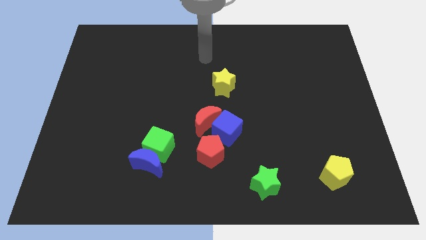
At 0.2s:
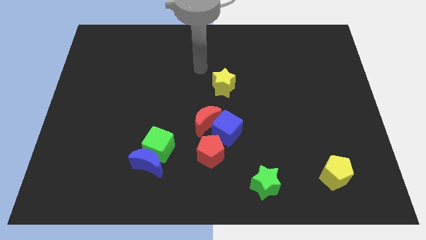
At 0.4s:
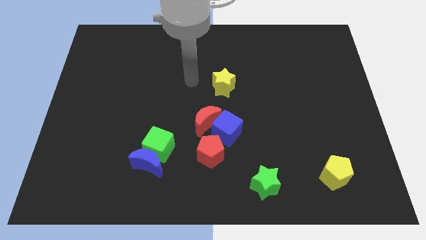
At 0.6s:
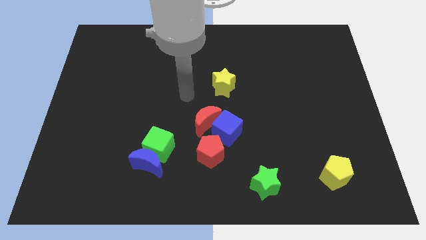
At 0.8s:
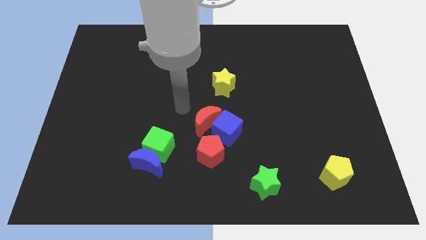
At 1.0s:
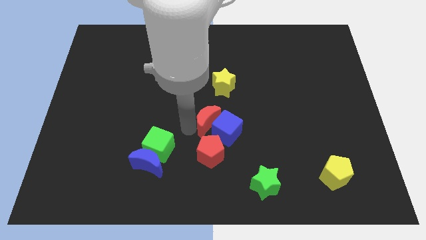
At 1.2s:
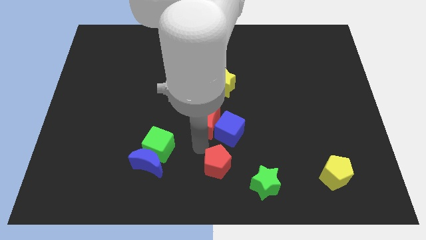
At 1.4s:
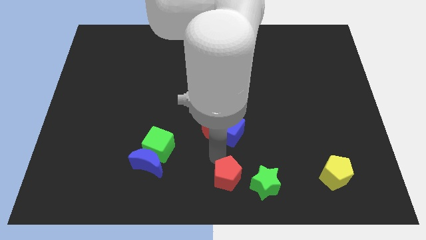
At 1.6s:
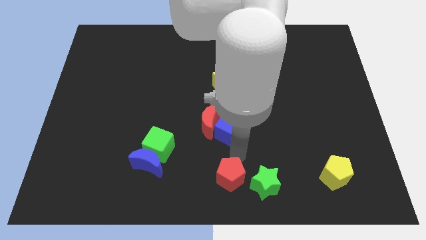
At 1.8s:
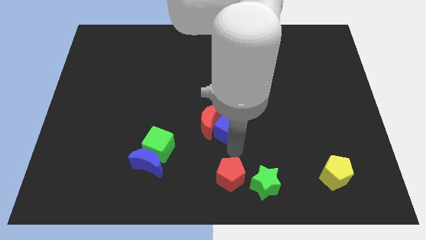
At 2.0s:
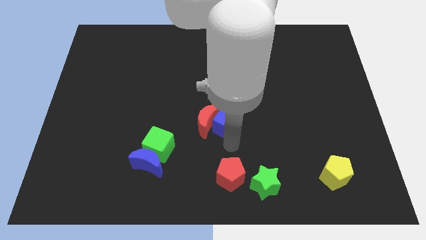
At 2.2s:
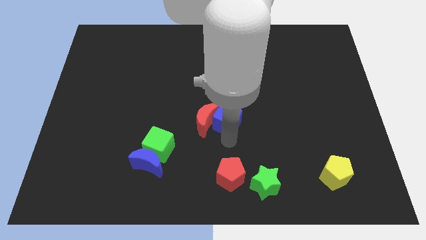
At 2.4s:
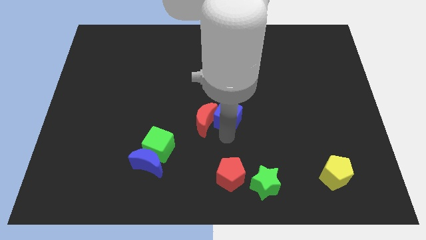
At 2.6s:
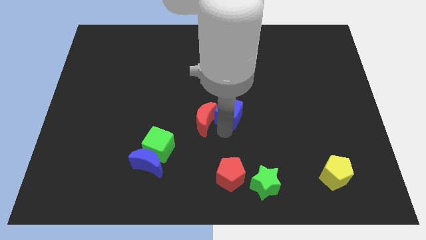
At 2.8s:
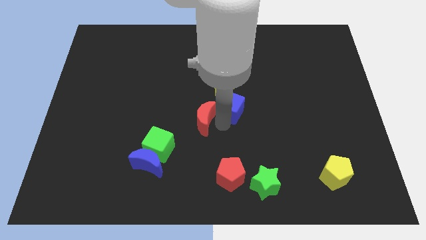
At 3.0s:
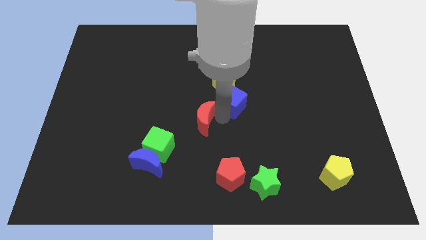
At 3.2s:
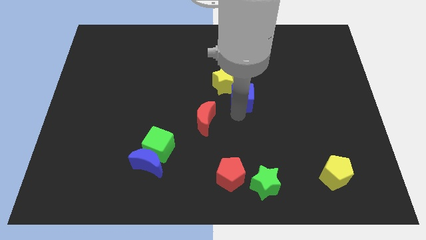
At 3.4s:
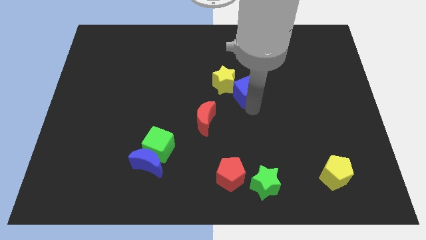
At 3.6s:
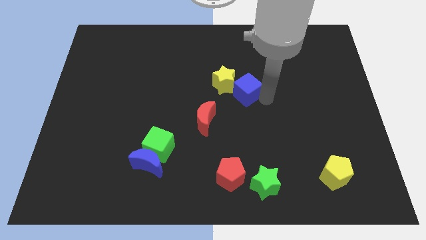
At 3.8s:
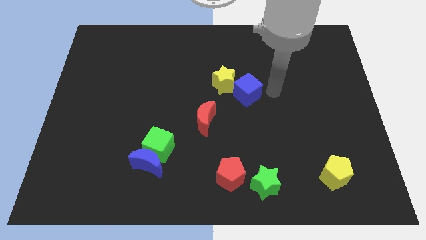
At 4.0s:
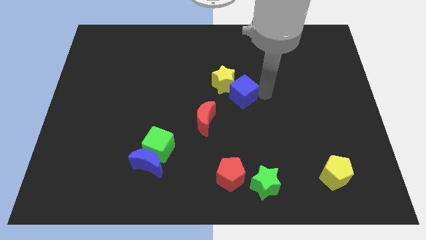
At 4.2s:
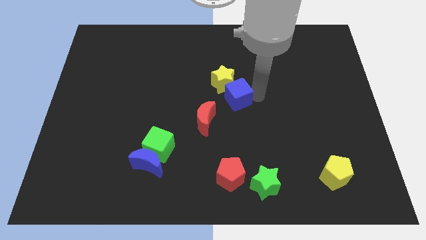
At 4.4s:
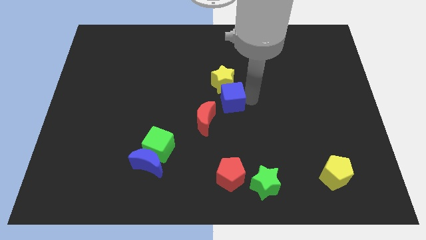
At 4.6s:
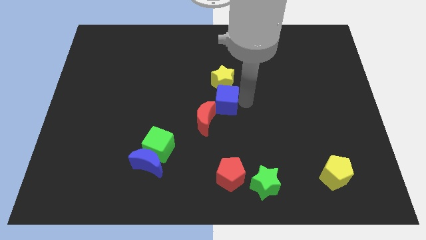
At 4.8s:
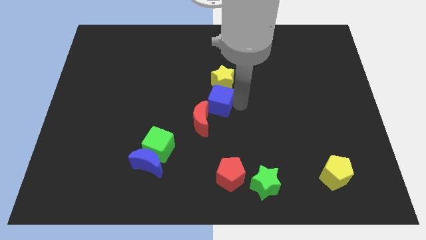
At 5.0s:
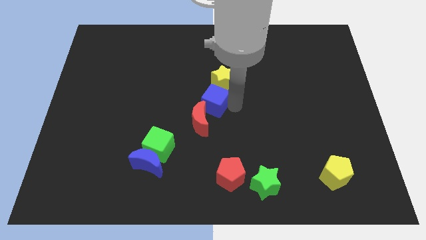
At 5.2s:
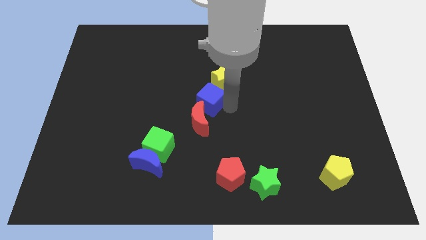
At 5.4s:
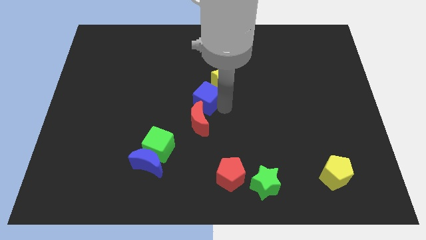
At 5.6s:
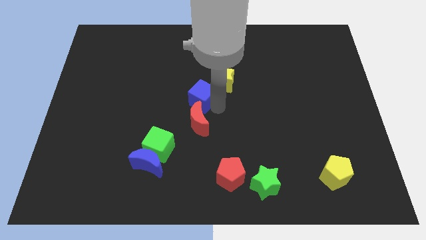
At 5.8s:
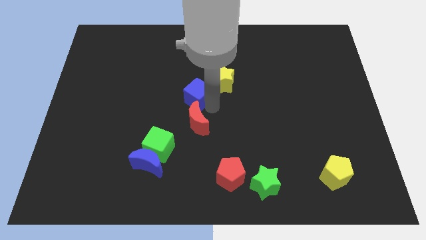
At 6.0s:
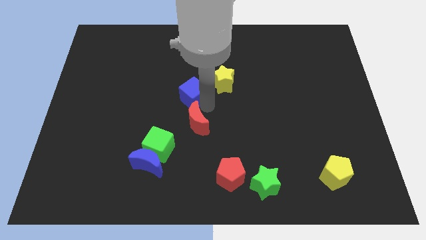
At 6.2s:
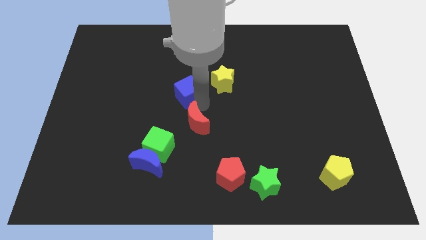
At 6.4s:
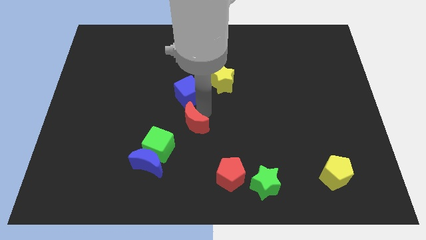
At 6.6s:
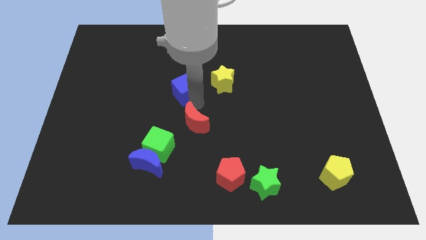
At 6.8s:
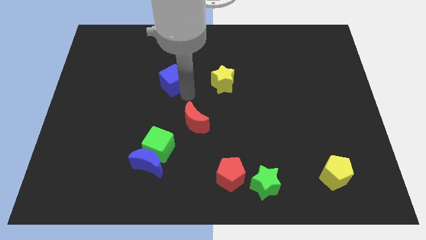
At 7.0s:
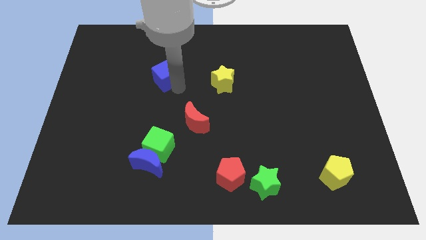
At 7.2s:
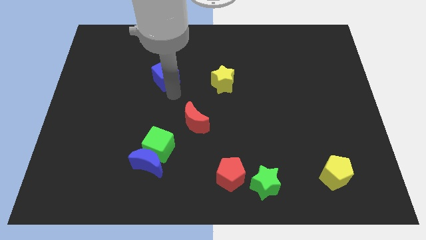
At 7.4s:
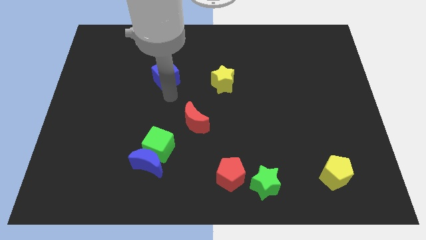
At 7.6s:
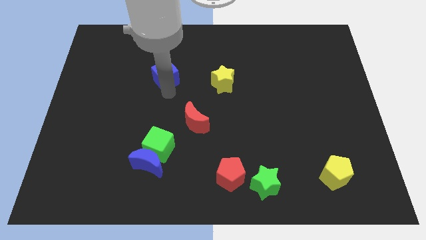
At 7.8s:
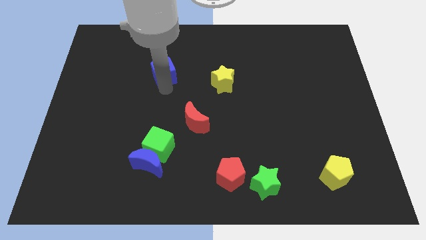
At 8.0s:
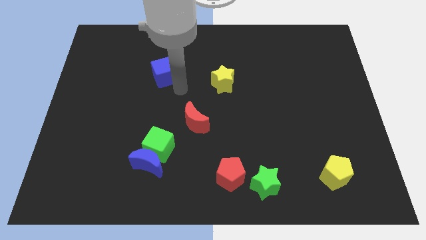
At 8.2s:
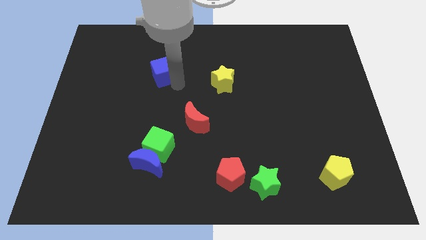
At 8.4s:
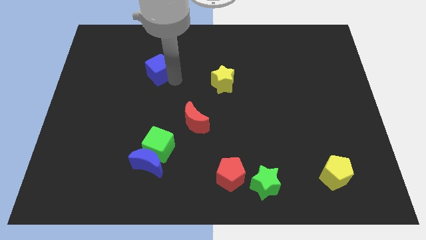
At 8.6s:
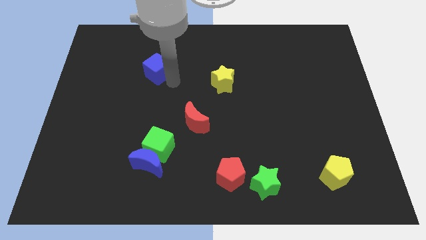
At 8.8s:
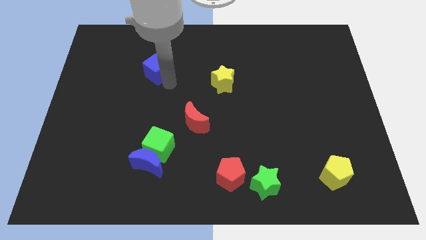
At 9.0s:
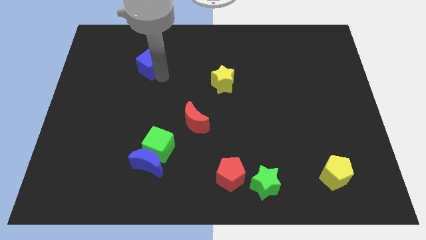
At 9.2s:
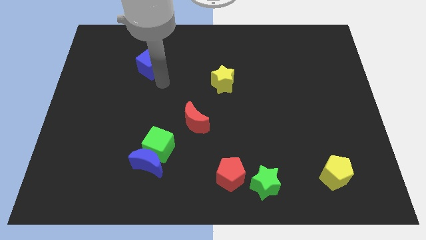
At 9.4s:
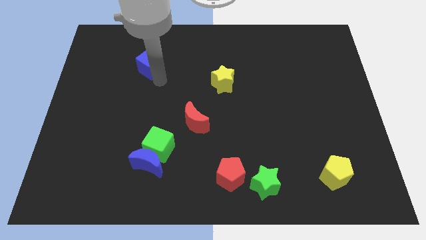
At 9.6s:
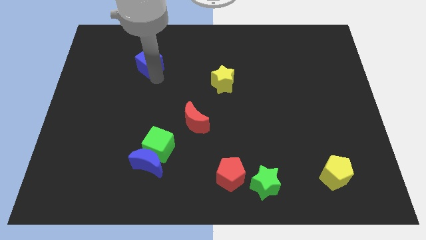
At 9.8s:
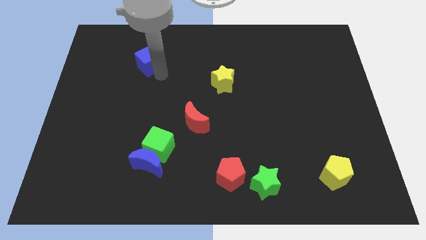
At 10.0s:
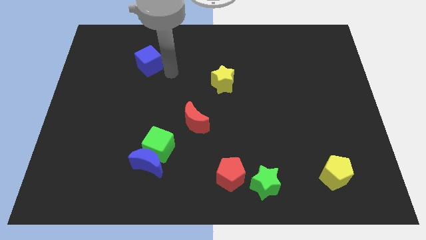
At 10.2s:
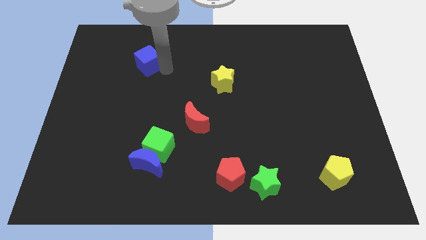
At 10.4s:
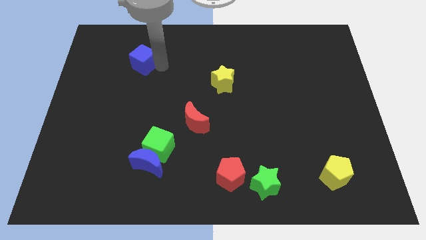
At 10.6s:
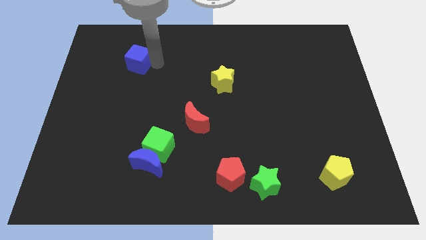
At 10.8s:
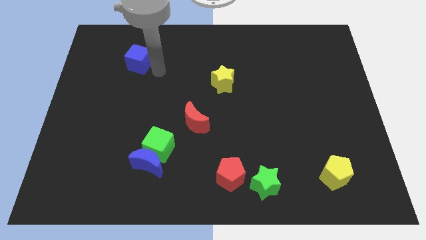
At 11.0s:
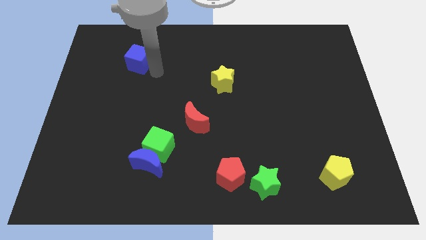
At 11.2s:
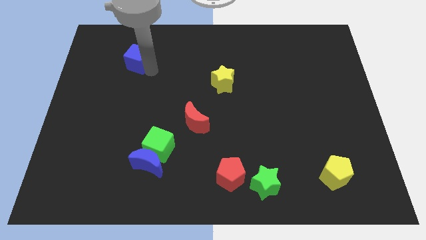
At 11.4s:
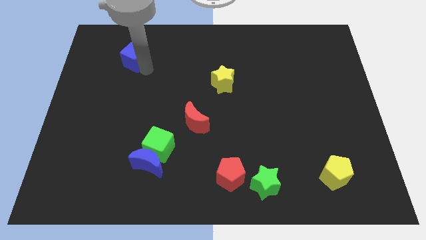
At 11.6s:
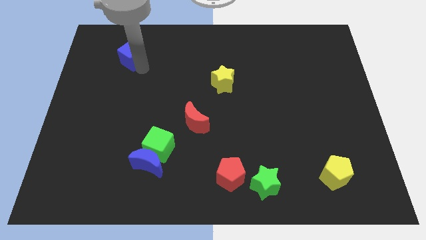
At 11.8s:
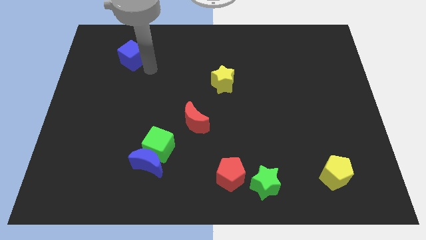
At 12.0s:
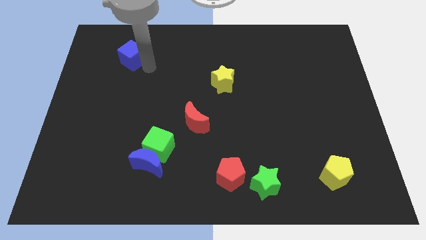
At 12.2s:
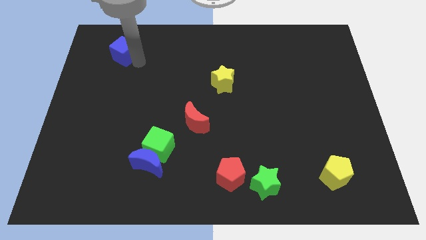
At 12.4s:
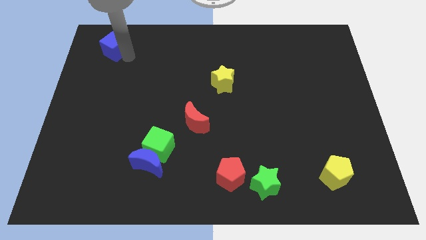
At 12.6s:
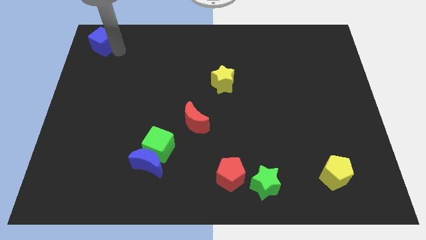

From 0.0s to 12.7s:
put the blue cube to the top left corner

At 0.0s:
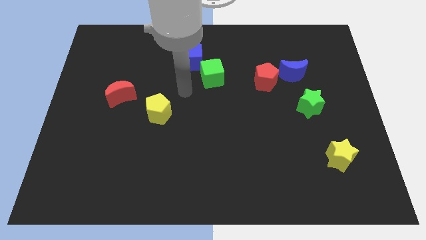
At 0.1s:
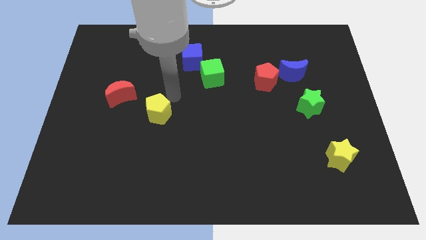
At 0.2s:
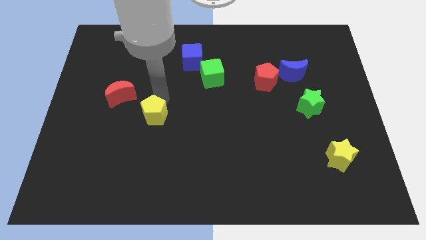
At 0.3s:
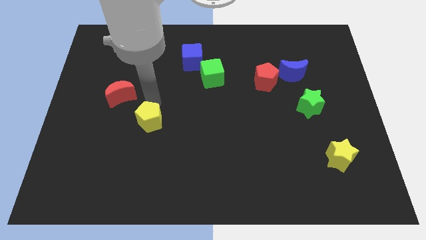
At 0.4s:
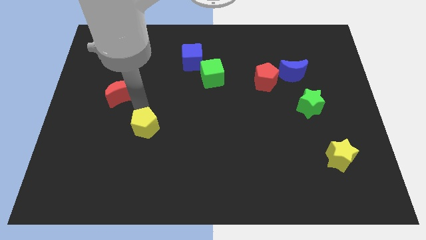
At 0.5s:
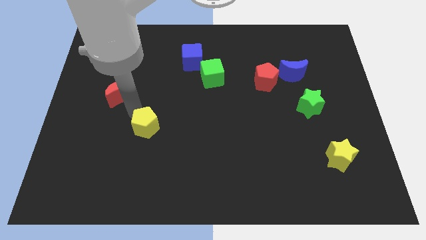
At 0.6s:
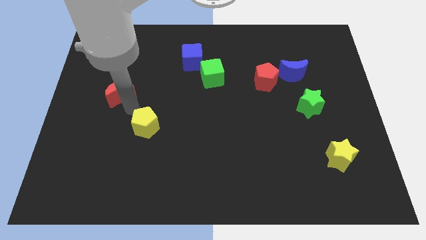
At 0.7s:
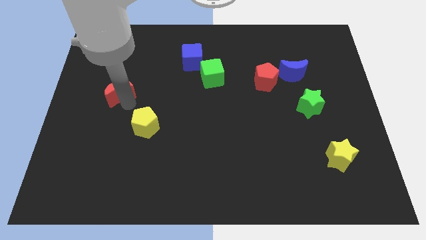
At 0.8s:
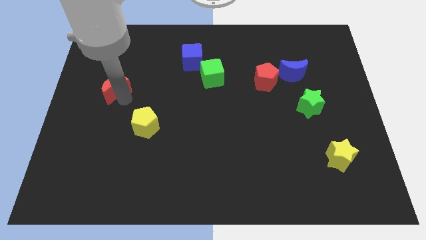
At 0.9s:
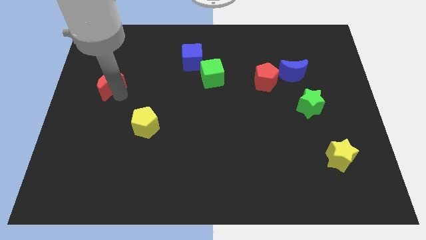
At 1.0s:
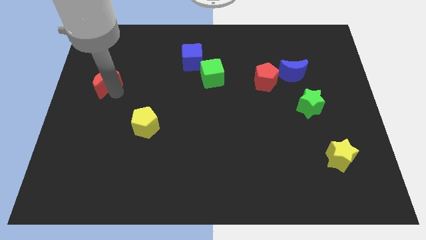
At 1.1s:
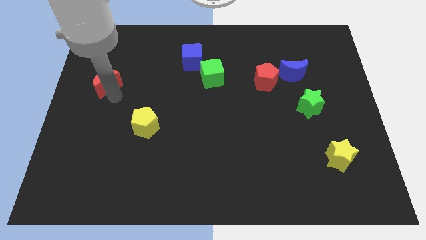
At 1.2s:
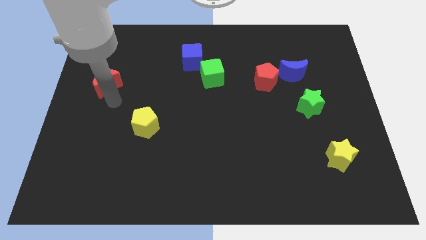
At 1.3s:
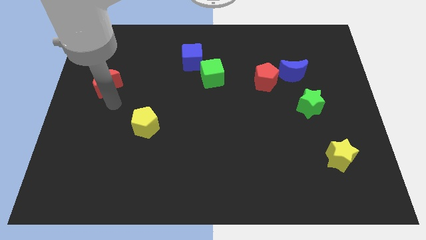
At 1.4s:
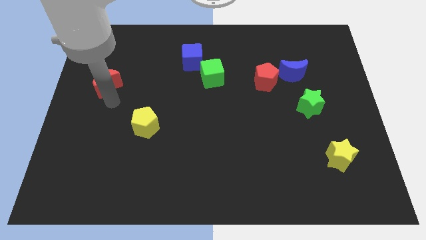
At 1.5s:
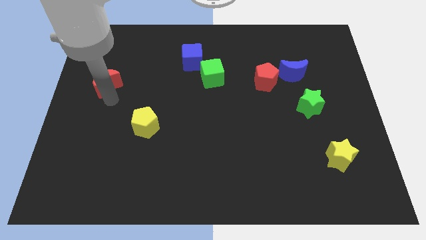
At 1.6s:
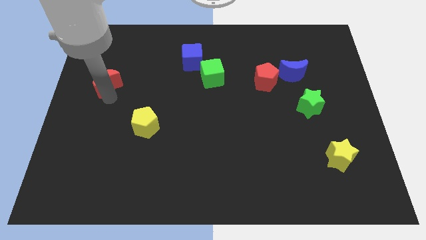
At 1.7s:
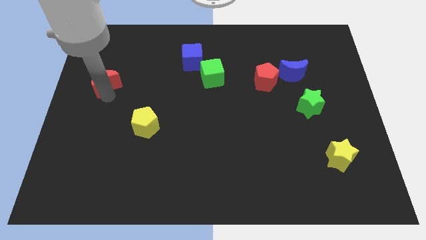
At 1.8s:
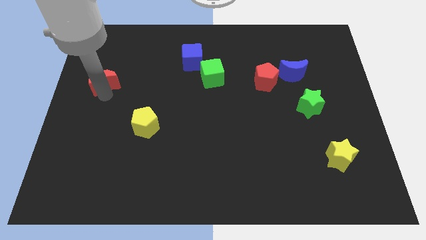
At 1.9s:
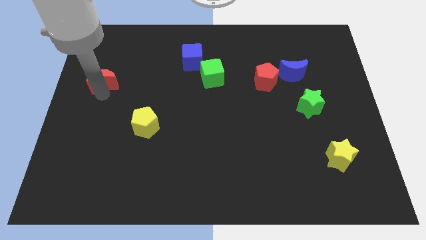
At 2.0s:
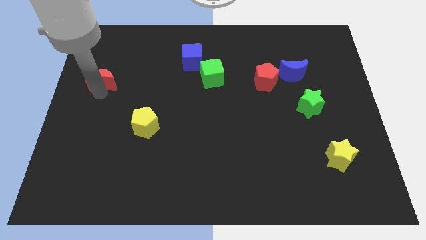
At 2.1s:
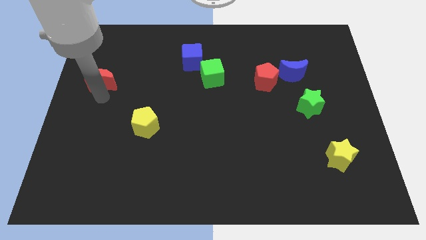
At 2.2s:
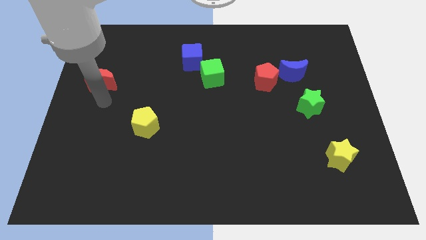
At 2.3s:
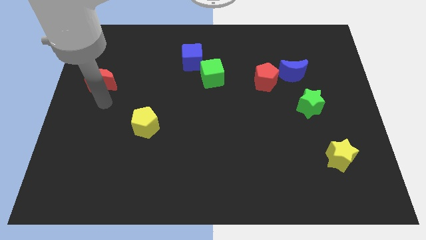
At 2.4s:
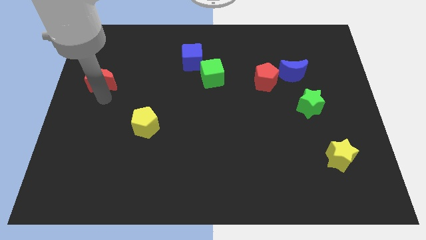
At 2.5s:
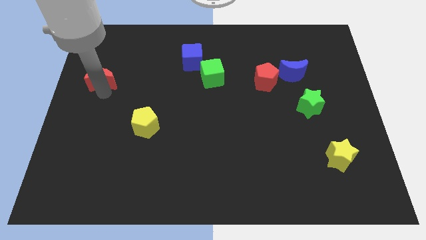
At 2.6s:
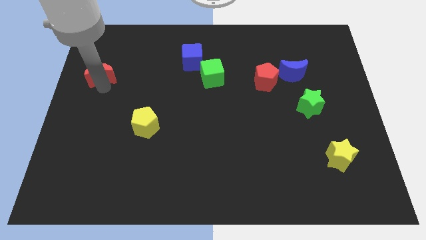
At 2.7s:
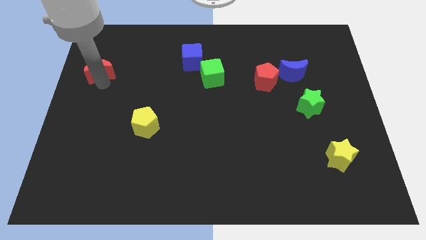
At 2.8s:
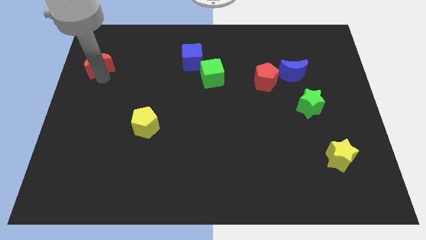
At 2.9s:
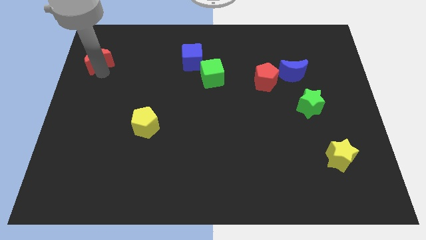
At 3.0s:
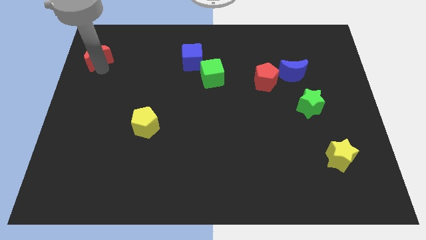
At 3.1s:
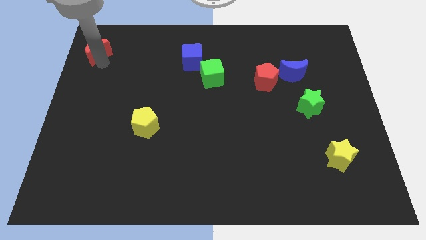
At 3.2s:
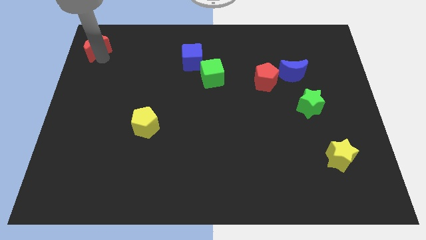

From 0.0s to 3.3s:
push the red moon to the top left
